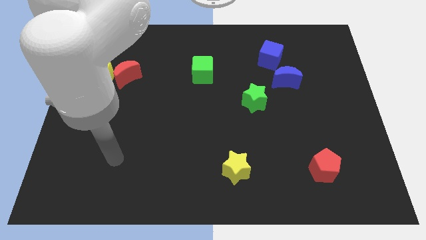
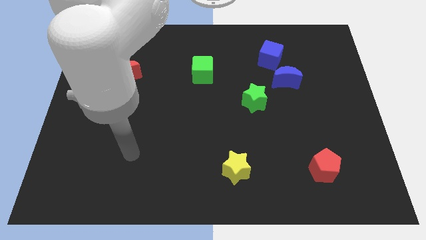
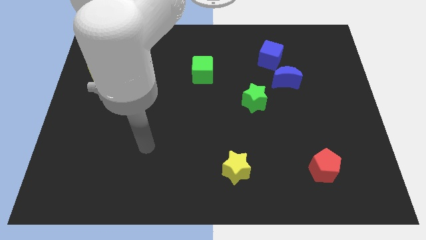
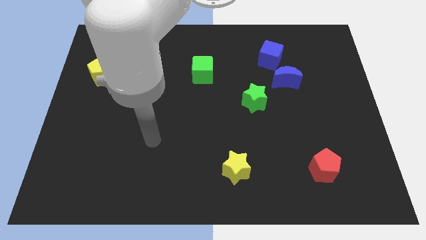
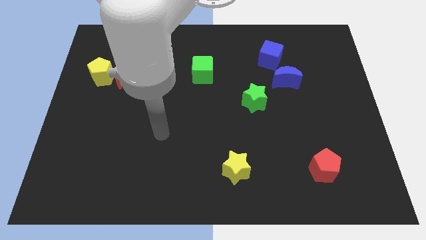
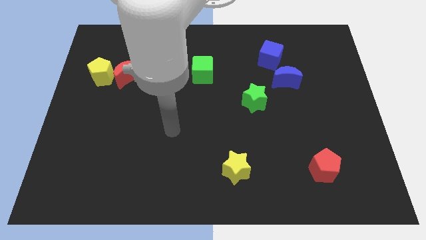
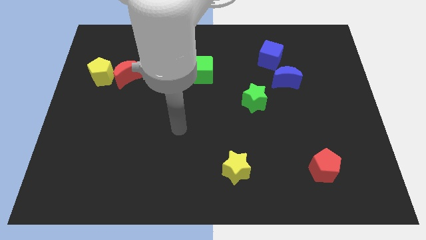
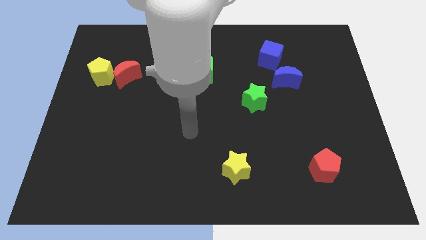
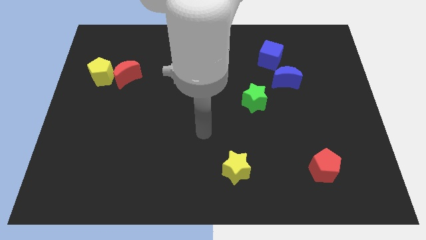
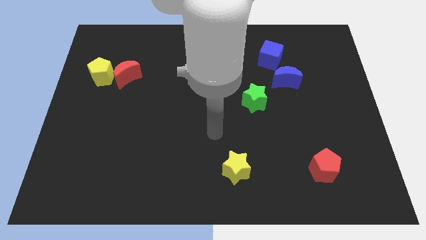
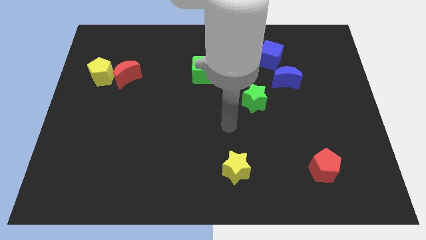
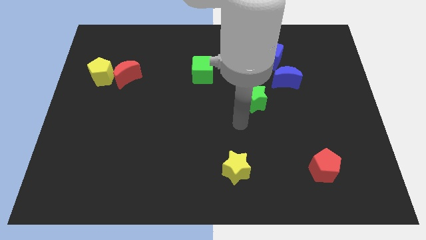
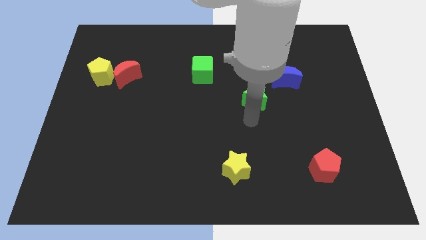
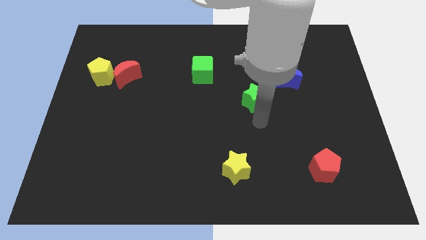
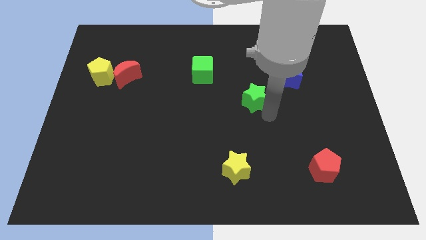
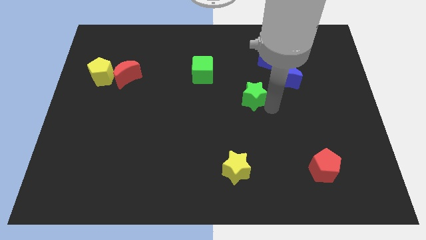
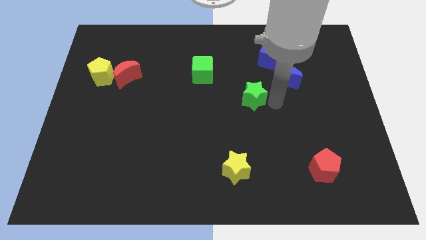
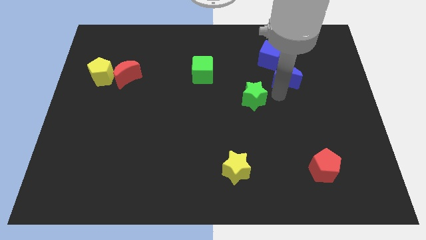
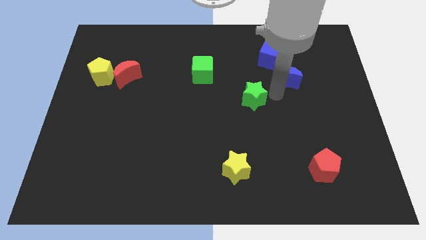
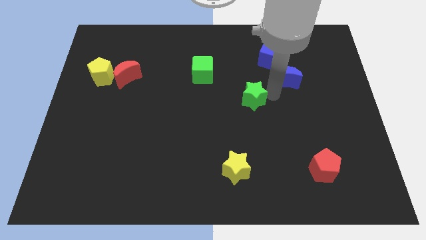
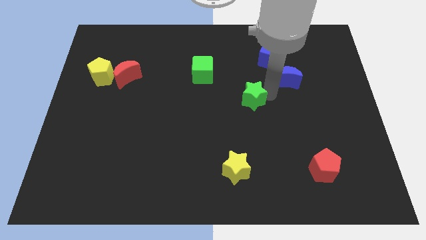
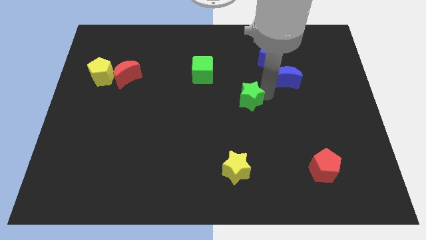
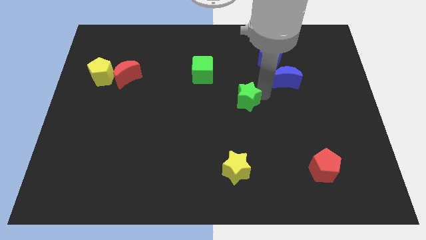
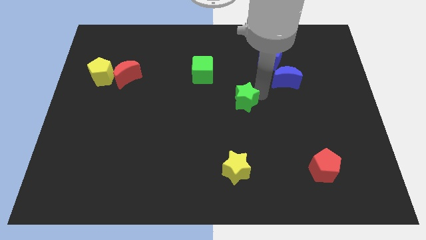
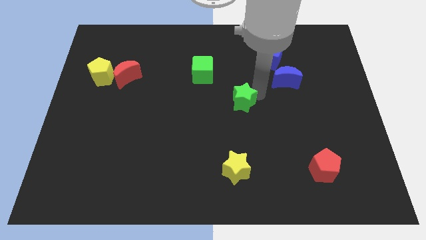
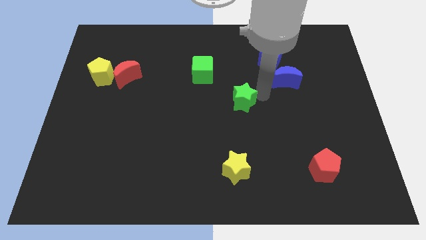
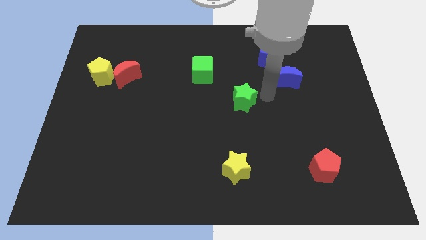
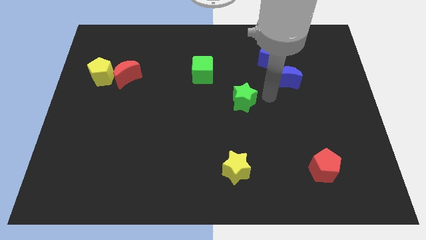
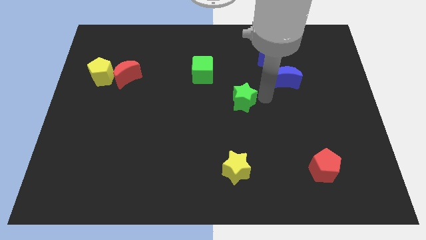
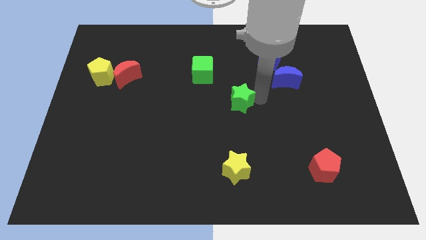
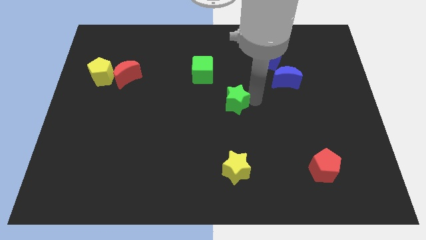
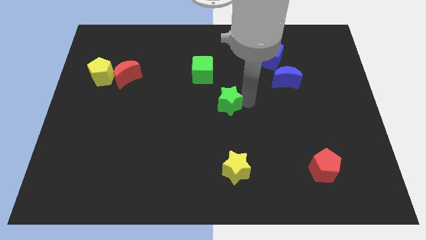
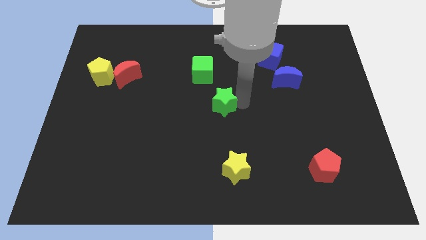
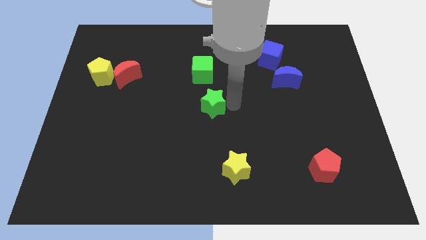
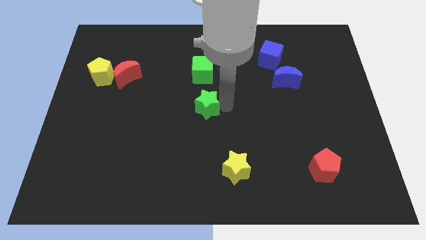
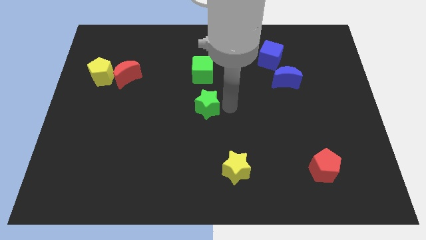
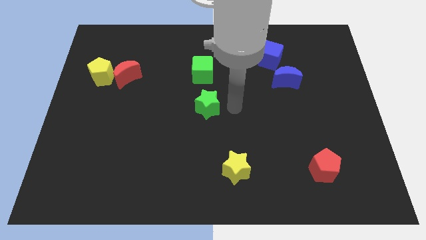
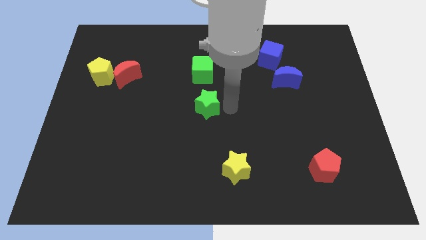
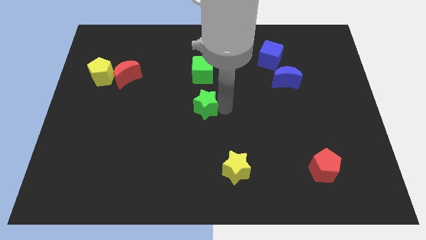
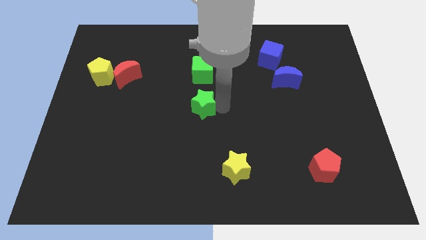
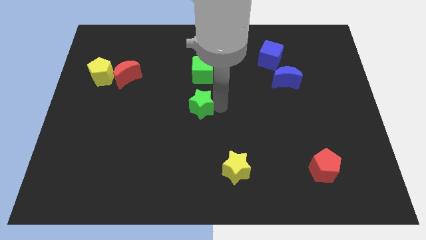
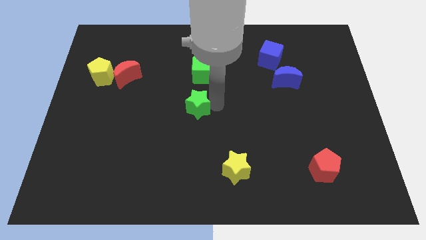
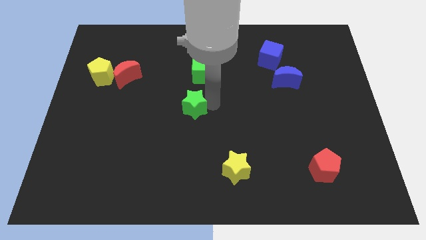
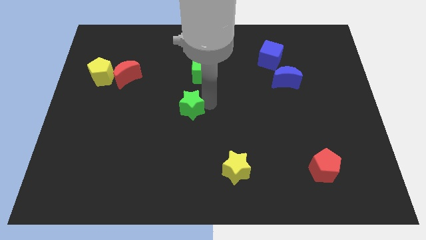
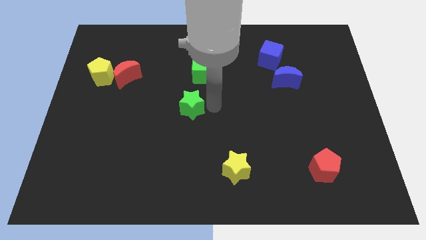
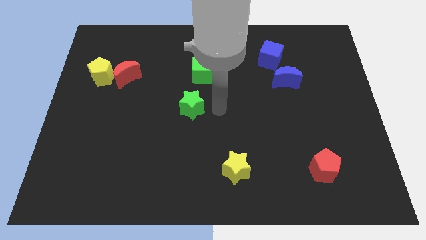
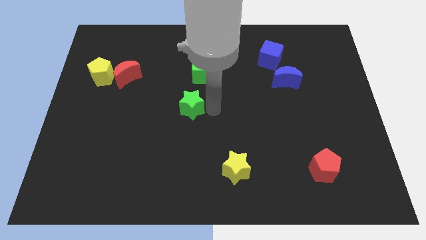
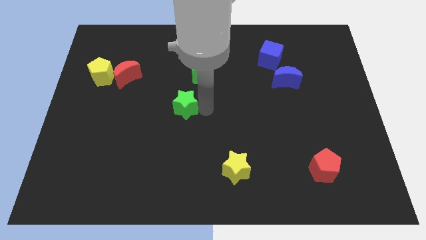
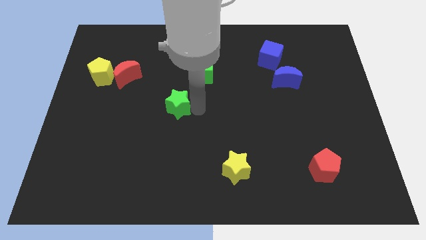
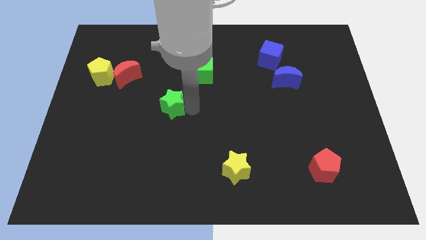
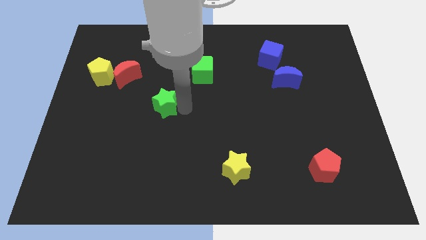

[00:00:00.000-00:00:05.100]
push the green star left

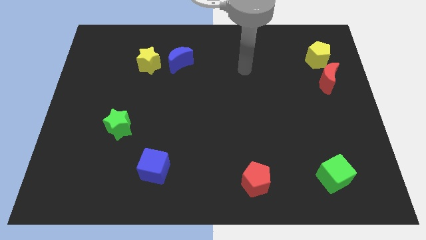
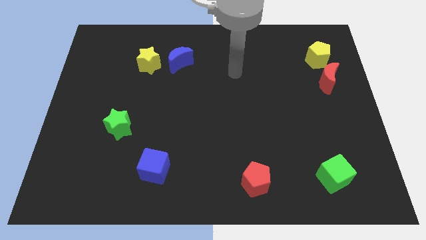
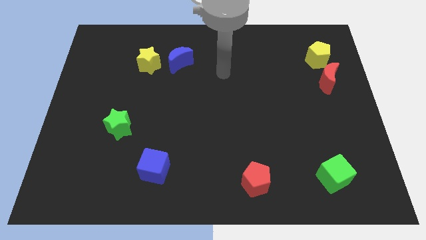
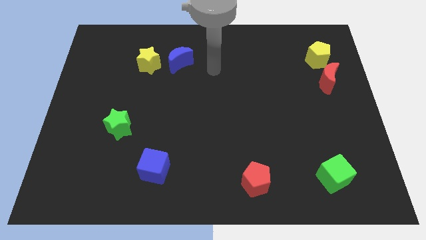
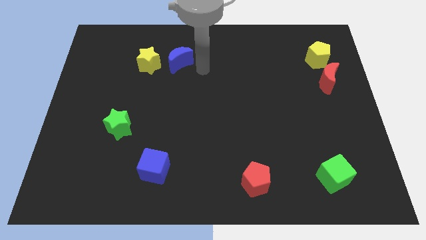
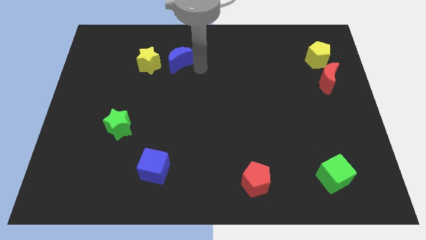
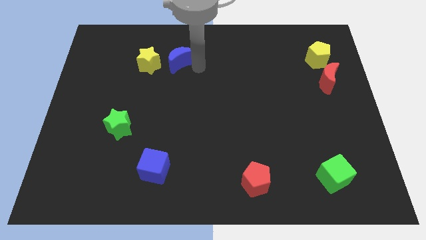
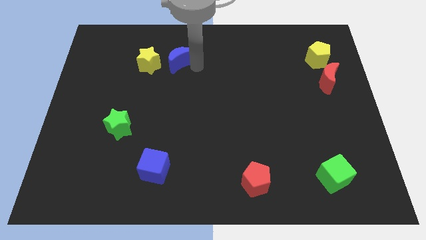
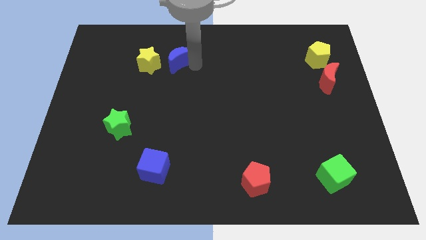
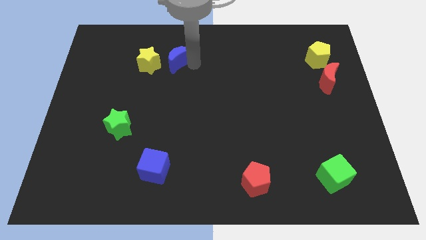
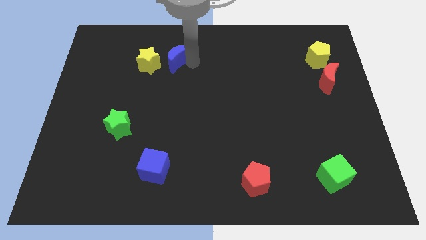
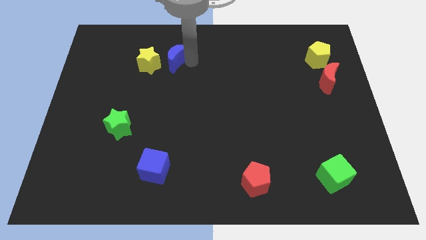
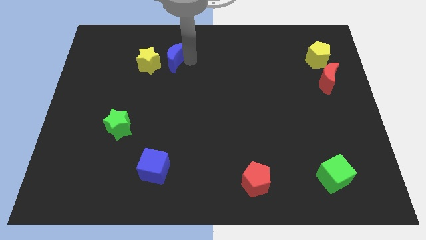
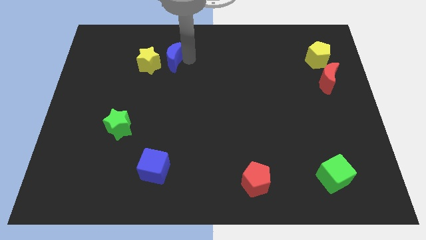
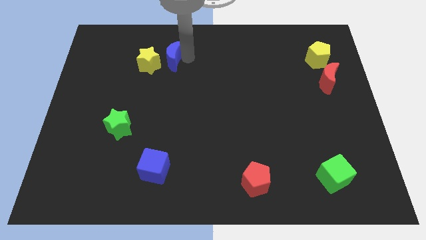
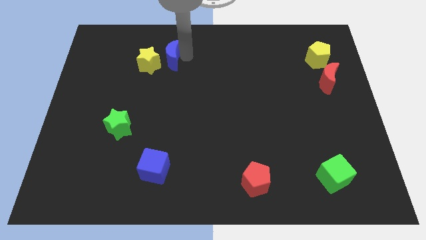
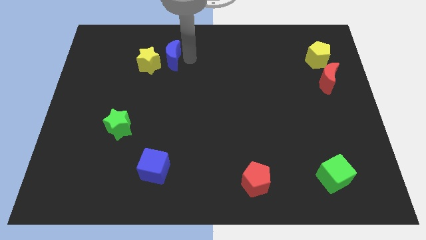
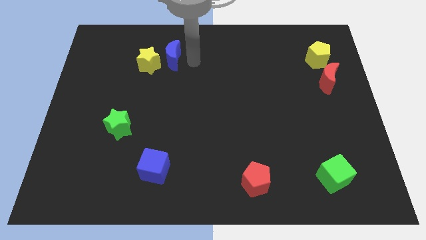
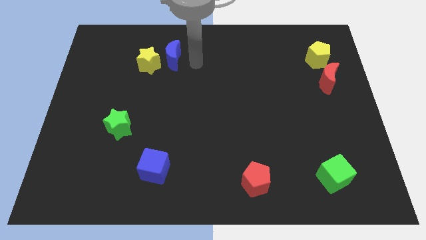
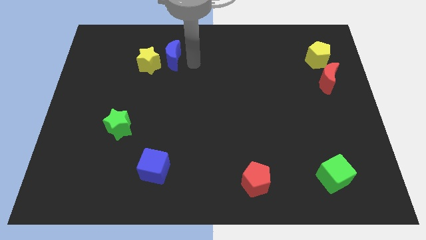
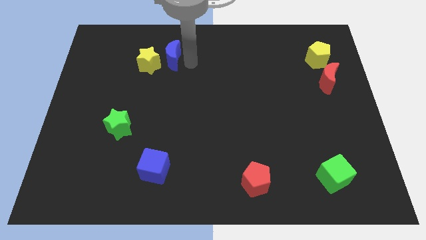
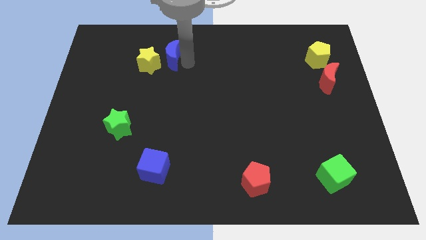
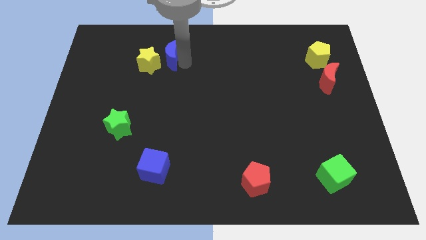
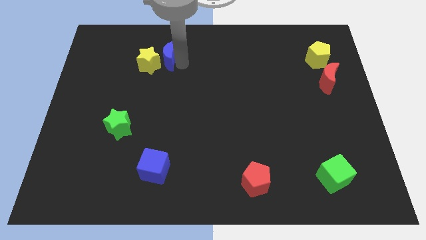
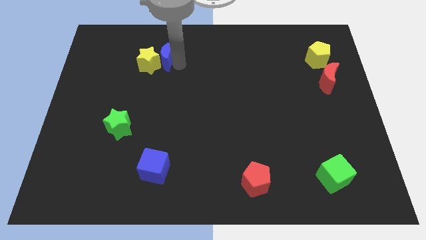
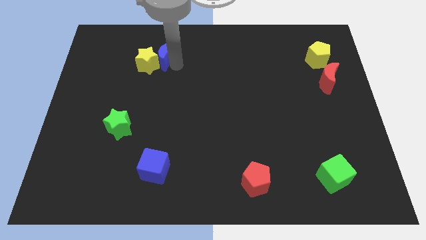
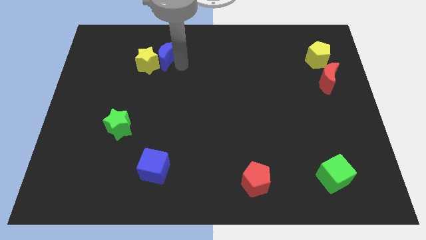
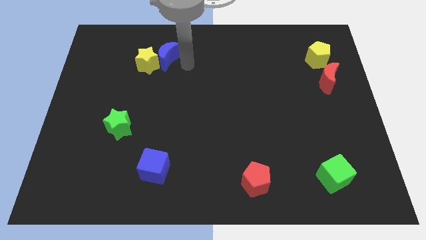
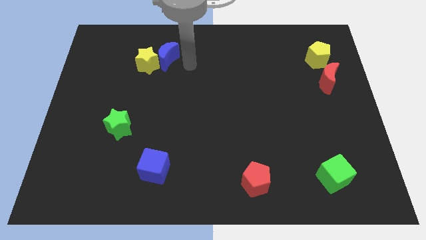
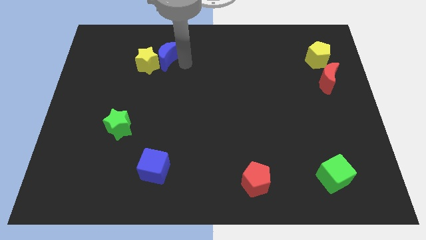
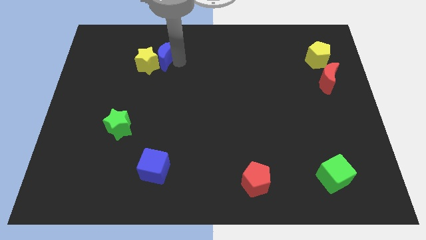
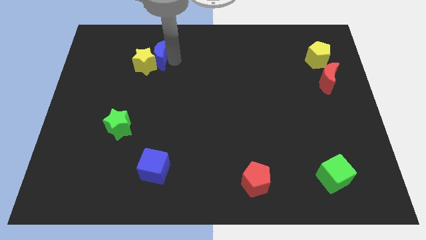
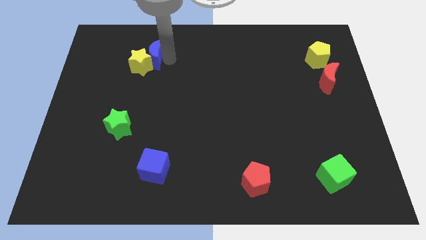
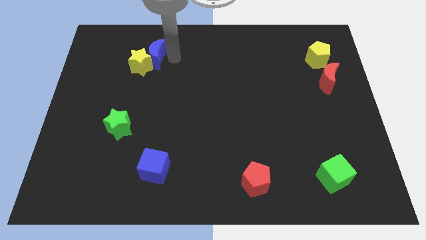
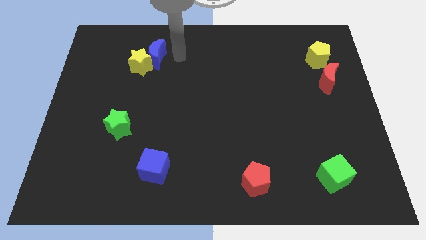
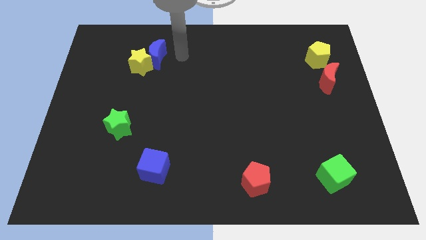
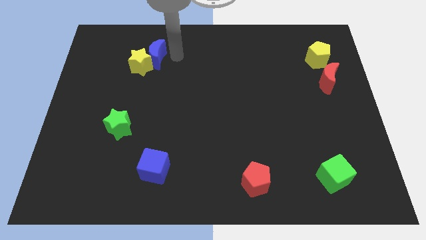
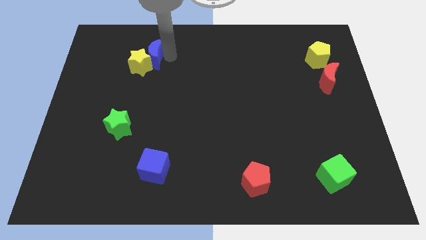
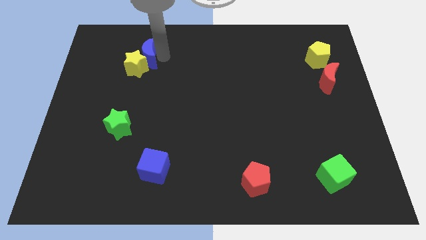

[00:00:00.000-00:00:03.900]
slightly move the blue moon to the left
